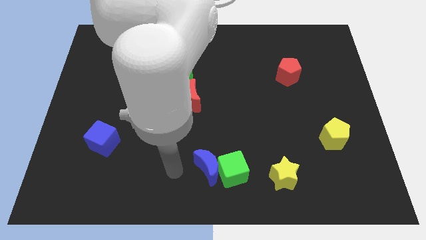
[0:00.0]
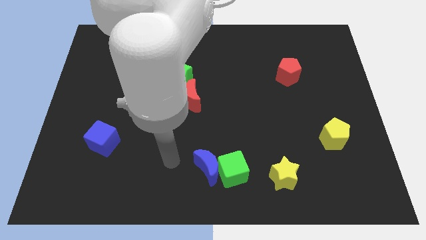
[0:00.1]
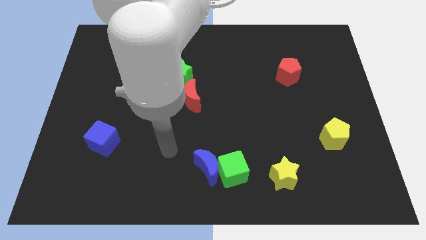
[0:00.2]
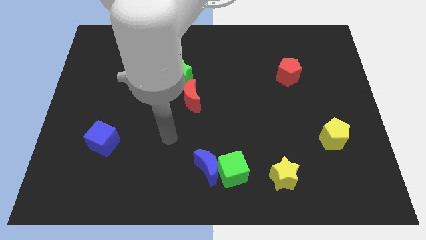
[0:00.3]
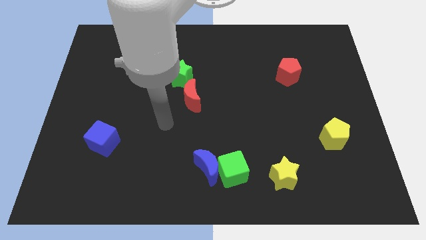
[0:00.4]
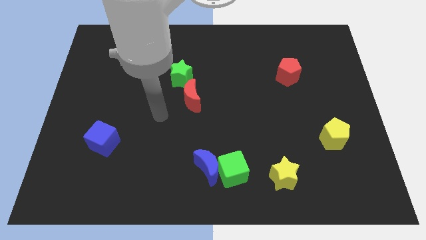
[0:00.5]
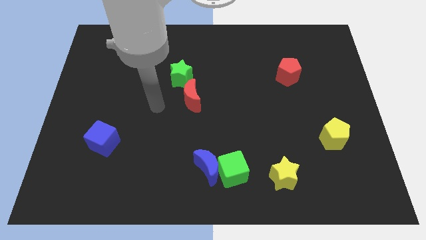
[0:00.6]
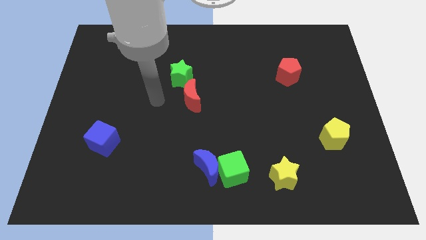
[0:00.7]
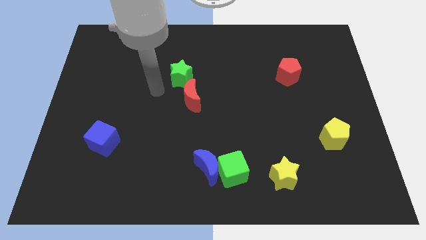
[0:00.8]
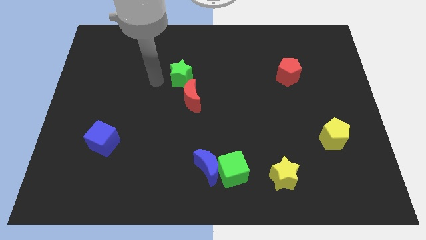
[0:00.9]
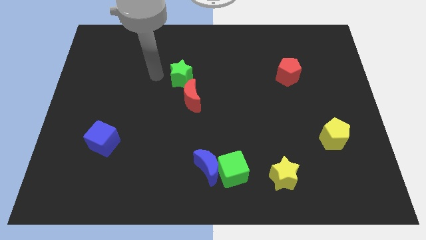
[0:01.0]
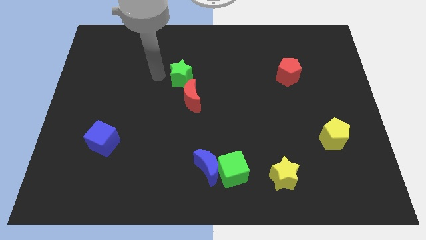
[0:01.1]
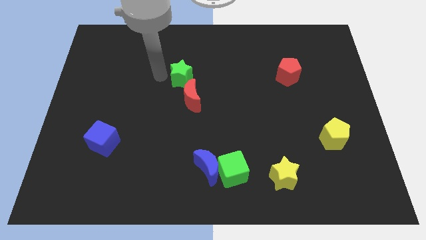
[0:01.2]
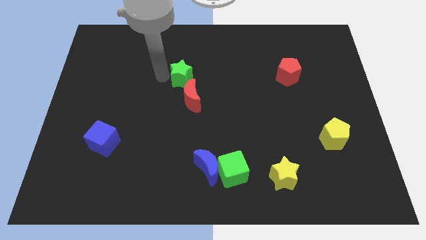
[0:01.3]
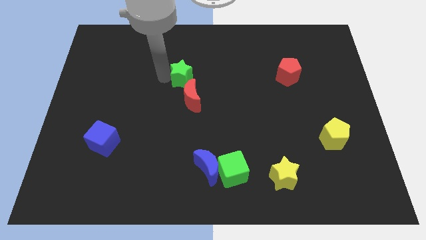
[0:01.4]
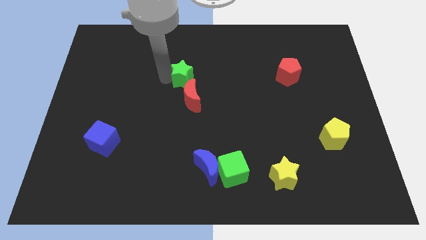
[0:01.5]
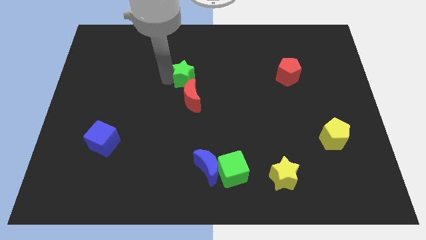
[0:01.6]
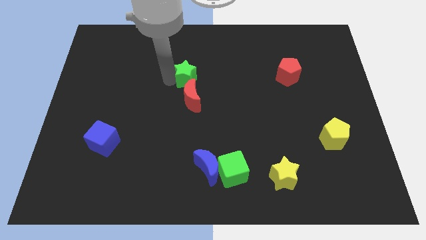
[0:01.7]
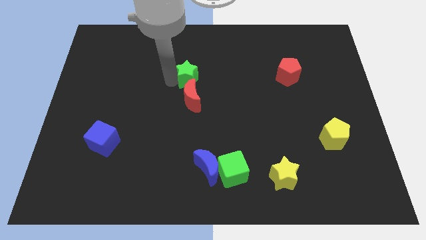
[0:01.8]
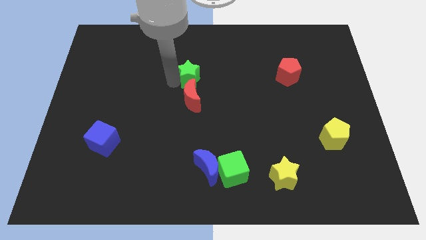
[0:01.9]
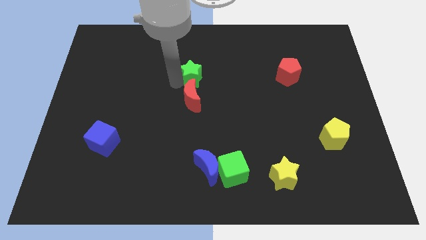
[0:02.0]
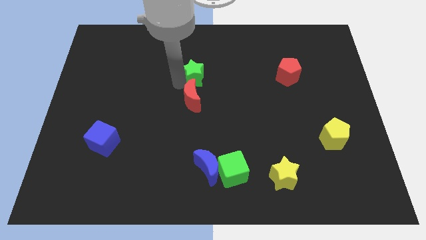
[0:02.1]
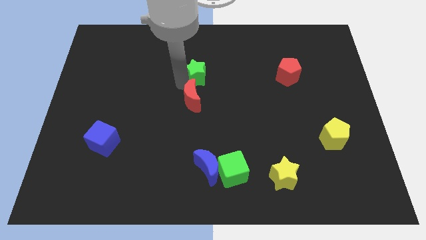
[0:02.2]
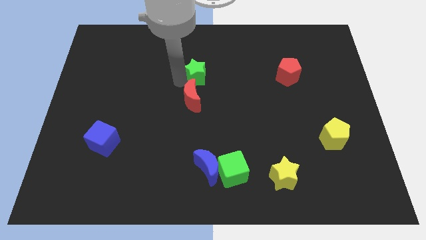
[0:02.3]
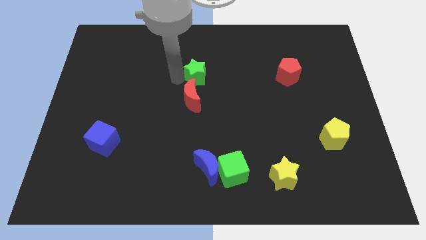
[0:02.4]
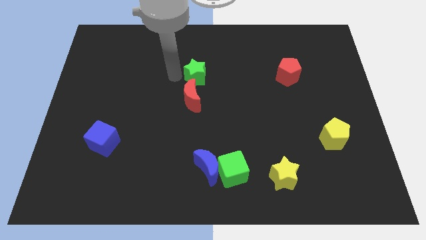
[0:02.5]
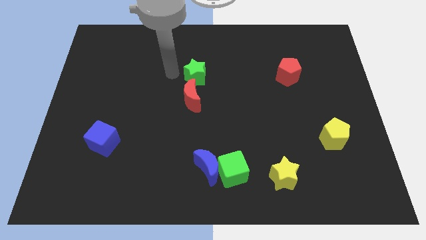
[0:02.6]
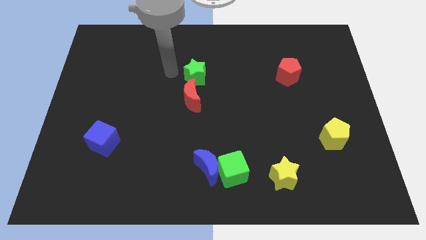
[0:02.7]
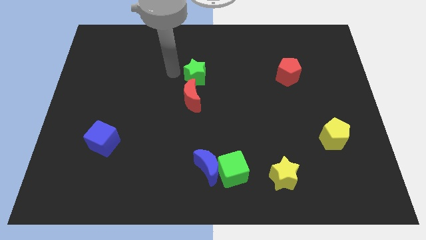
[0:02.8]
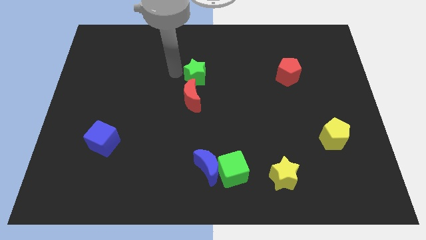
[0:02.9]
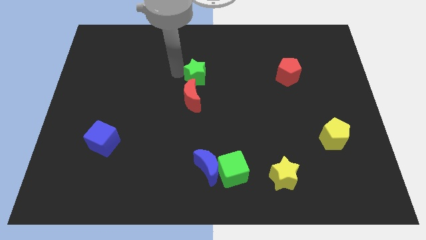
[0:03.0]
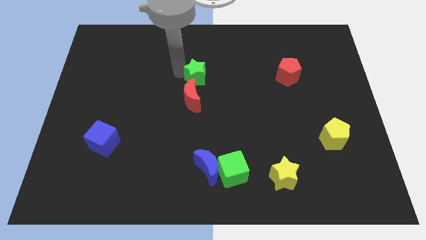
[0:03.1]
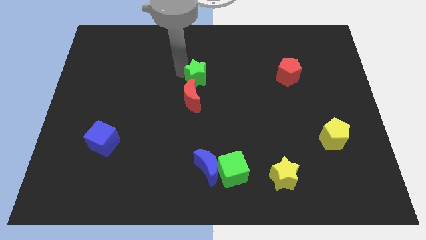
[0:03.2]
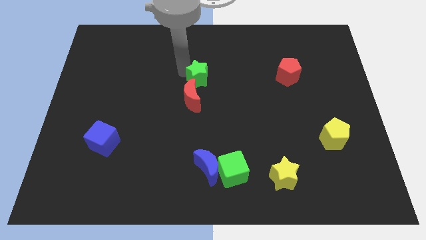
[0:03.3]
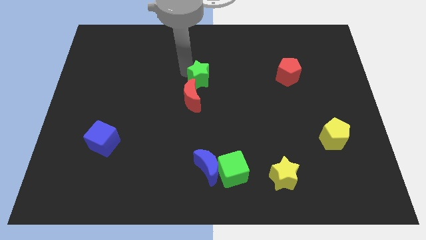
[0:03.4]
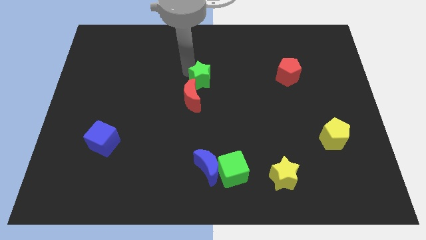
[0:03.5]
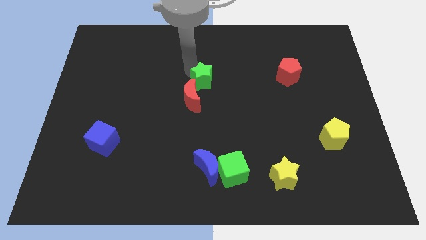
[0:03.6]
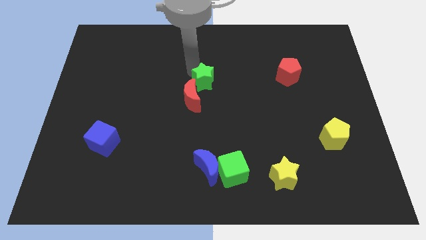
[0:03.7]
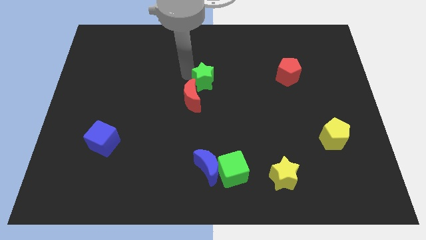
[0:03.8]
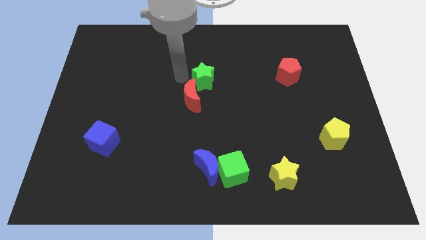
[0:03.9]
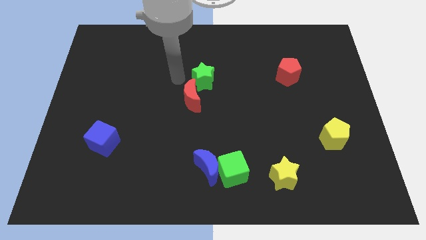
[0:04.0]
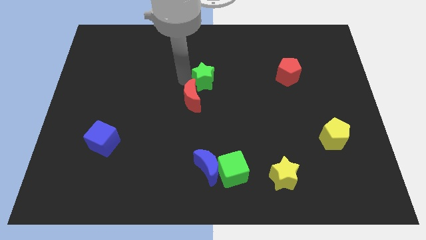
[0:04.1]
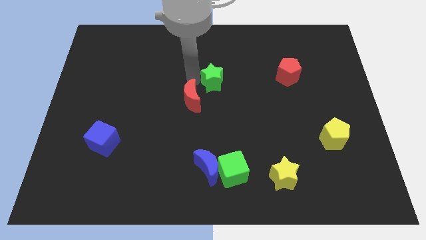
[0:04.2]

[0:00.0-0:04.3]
slide the green star somewhat right

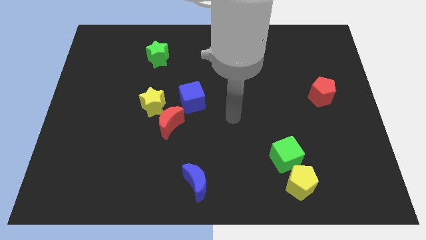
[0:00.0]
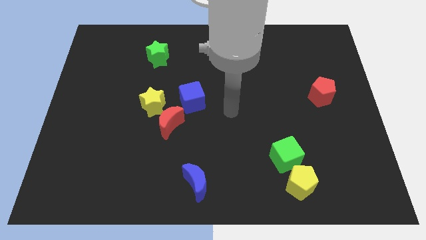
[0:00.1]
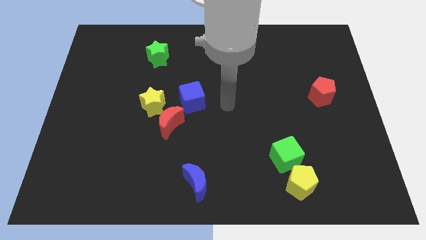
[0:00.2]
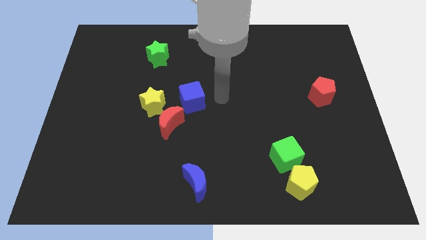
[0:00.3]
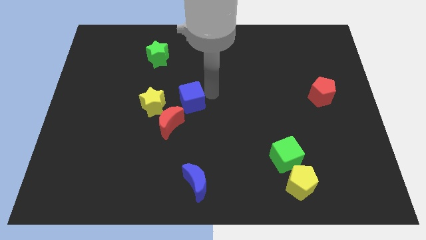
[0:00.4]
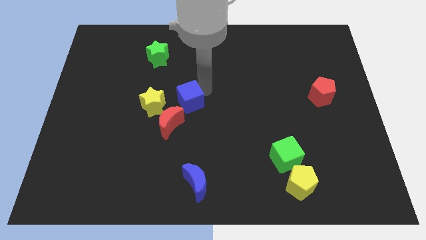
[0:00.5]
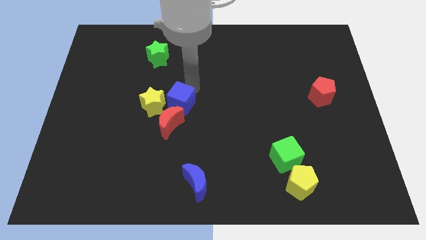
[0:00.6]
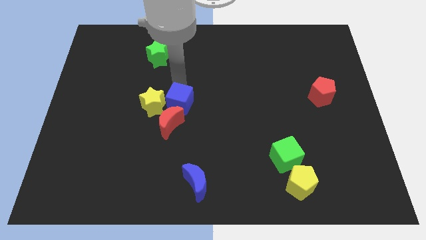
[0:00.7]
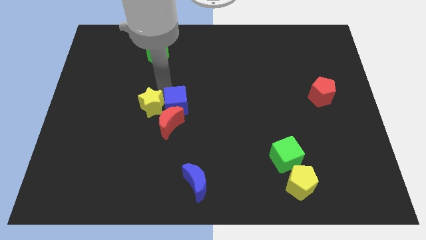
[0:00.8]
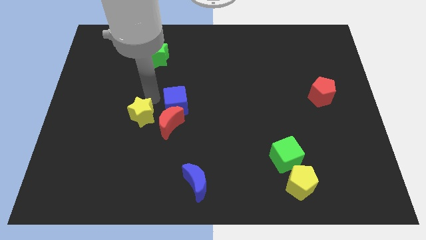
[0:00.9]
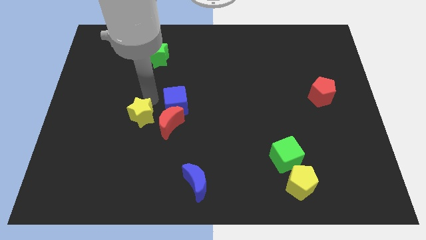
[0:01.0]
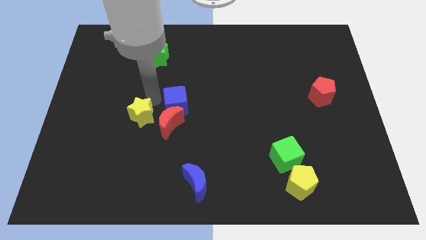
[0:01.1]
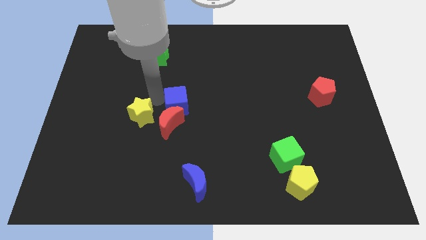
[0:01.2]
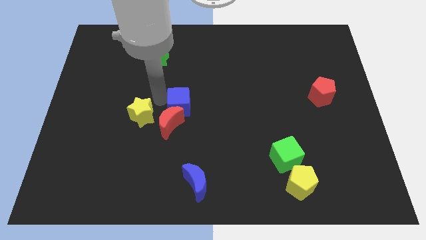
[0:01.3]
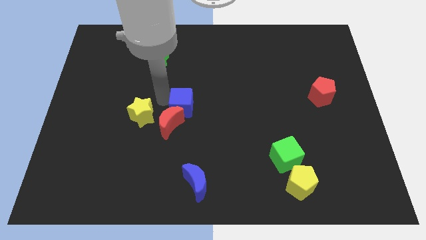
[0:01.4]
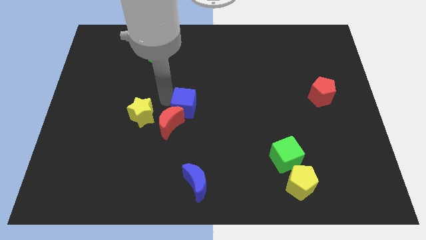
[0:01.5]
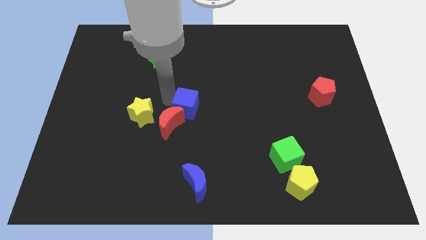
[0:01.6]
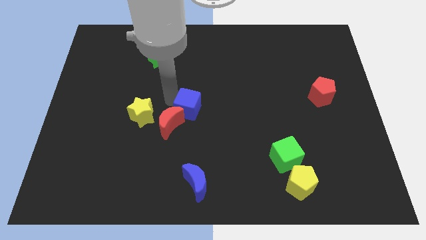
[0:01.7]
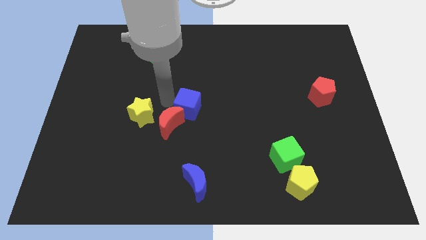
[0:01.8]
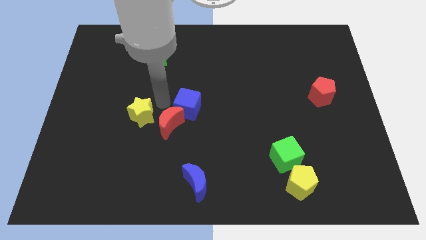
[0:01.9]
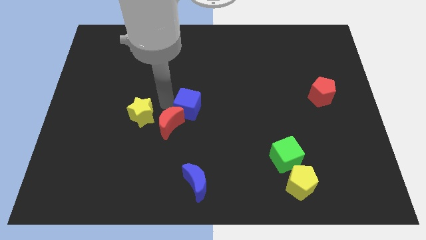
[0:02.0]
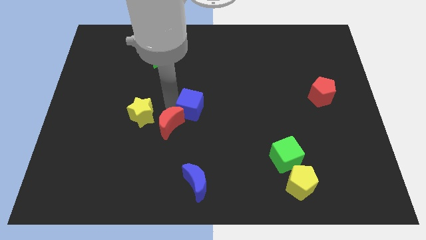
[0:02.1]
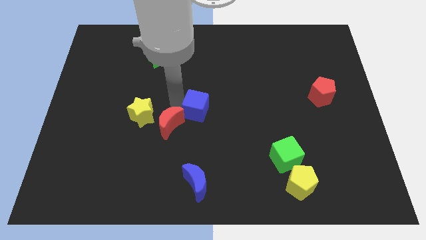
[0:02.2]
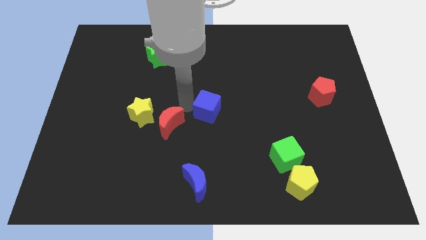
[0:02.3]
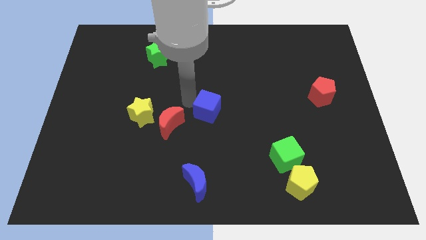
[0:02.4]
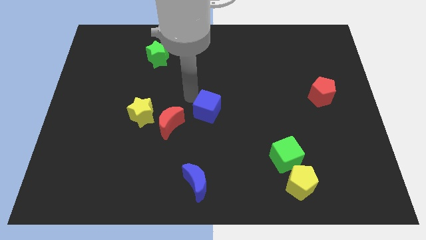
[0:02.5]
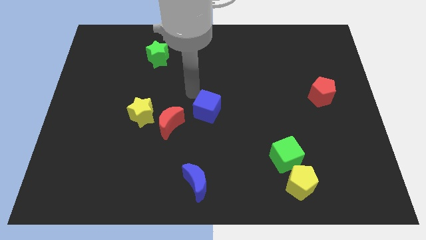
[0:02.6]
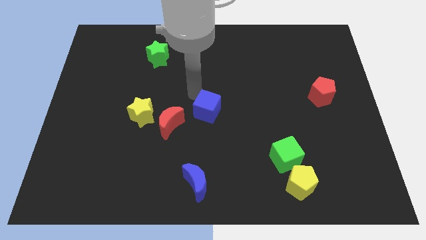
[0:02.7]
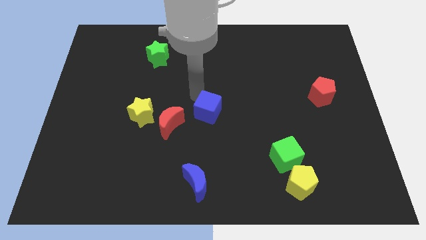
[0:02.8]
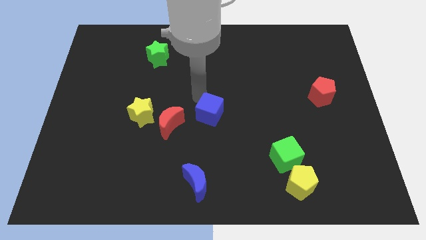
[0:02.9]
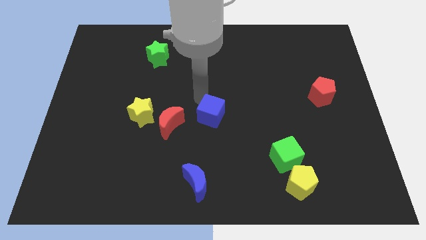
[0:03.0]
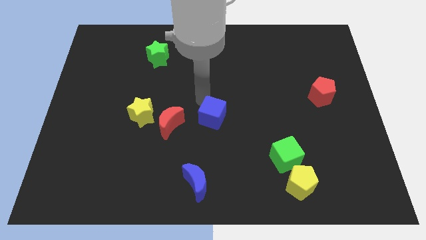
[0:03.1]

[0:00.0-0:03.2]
push the blue cube a little down and then to the right

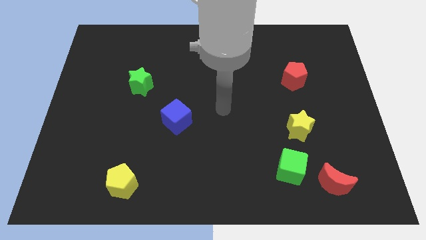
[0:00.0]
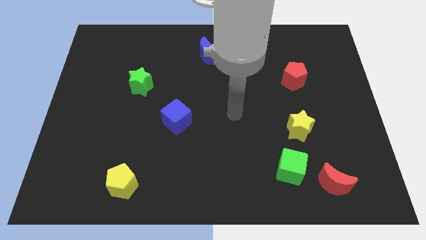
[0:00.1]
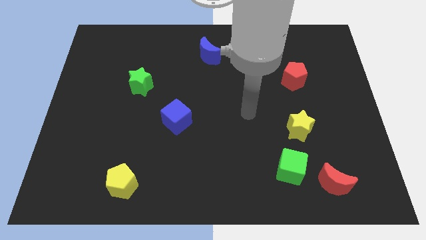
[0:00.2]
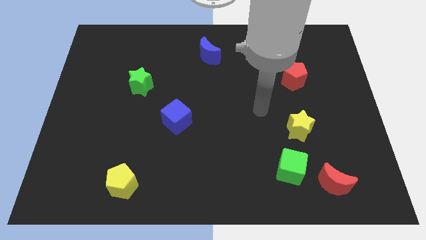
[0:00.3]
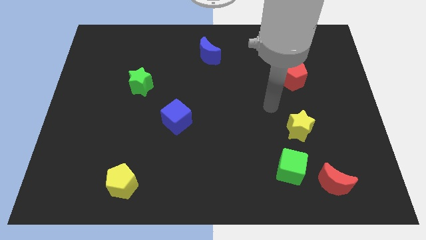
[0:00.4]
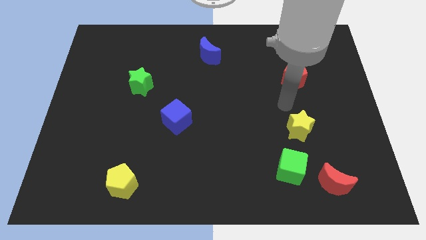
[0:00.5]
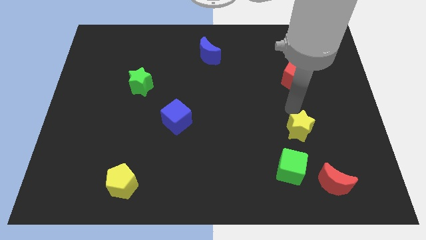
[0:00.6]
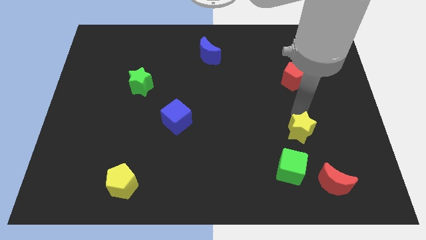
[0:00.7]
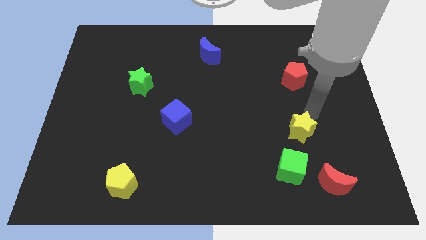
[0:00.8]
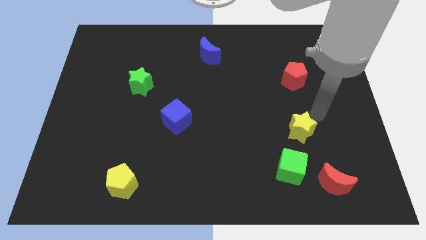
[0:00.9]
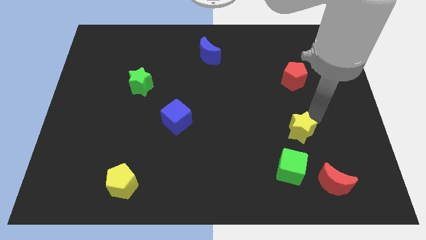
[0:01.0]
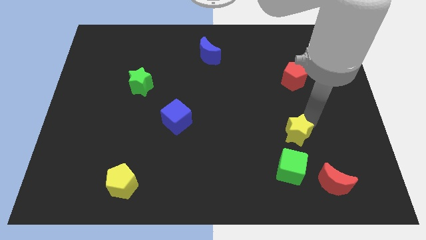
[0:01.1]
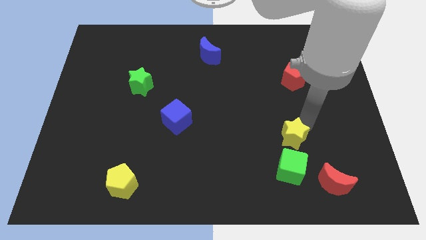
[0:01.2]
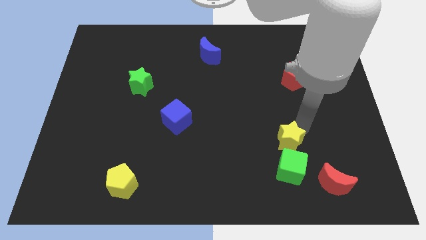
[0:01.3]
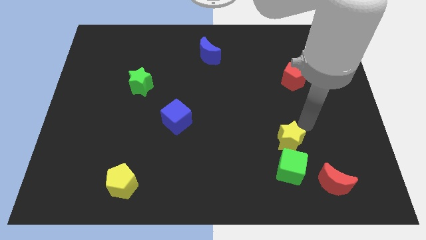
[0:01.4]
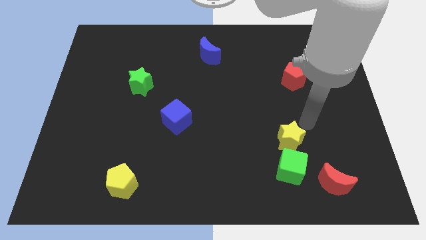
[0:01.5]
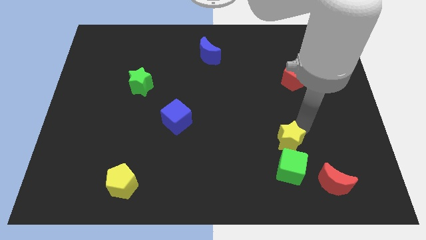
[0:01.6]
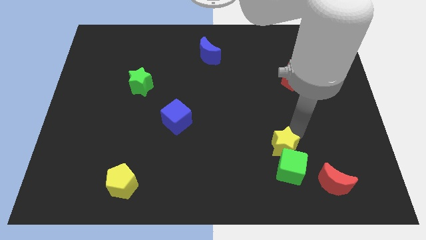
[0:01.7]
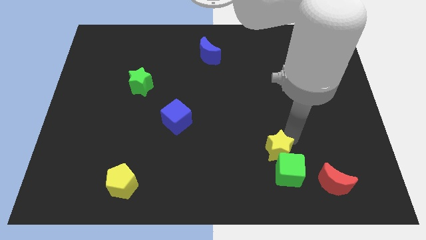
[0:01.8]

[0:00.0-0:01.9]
slightly slide the yellow star downwards and then left
